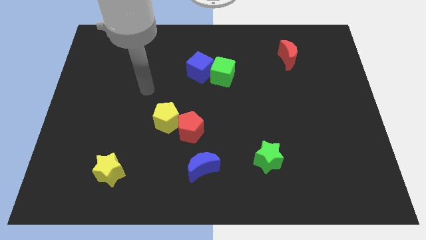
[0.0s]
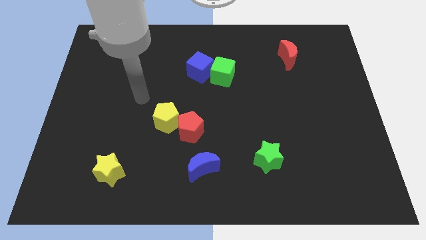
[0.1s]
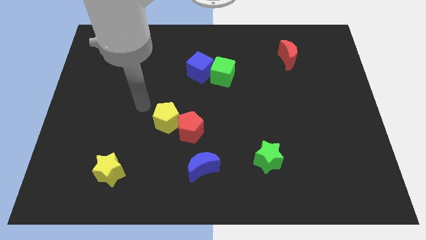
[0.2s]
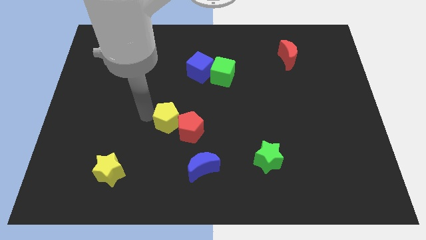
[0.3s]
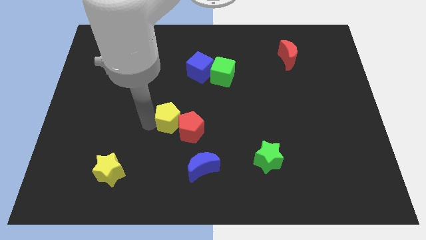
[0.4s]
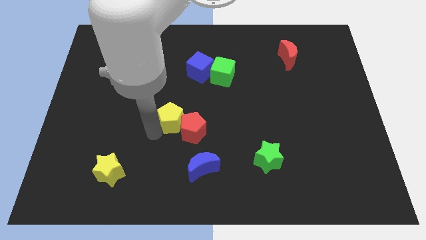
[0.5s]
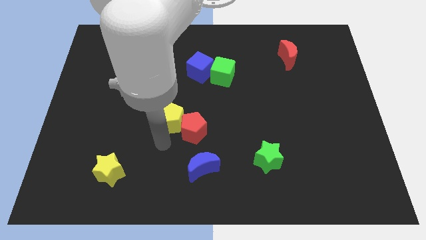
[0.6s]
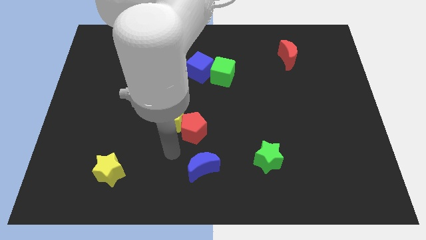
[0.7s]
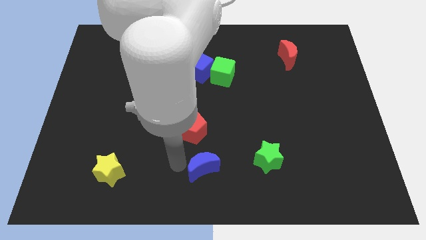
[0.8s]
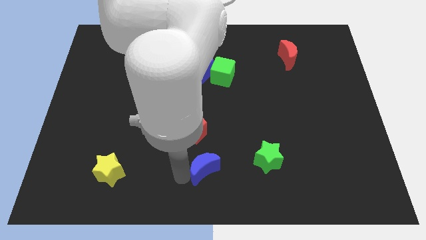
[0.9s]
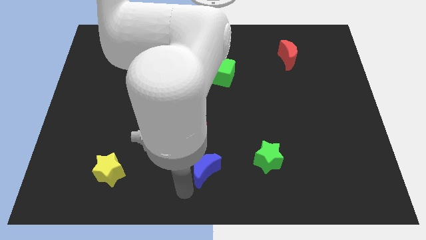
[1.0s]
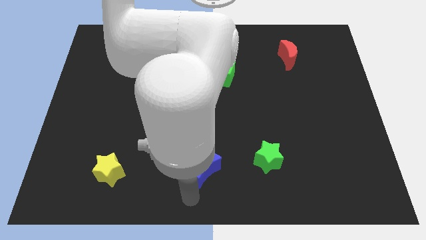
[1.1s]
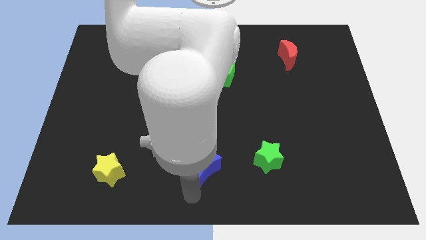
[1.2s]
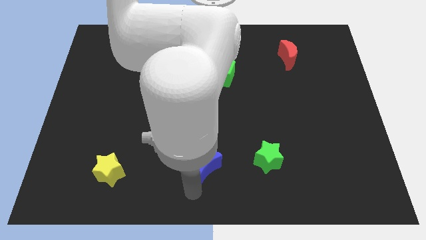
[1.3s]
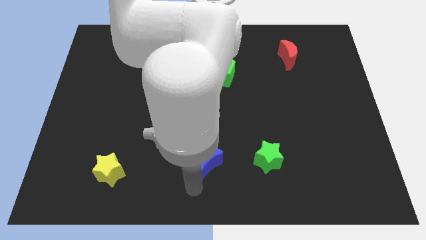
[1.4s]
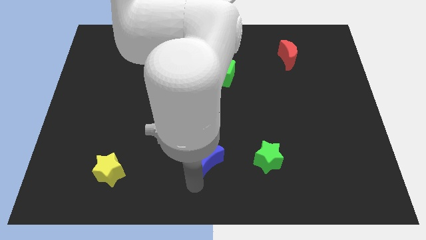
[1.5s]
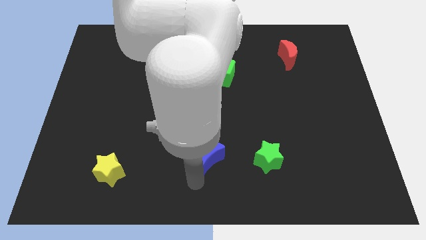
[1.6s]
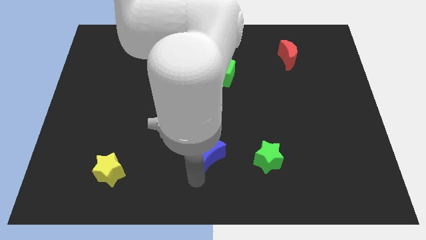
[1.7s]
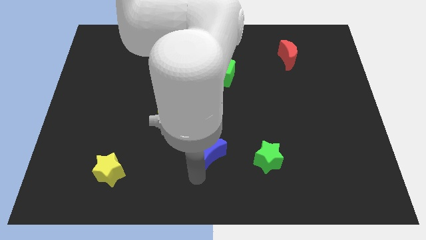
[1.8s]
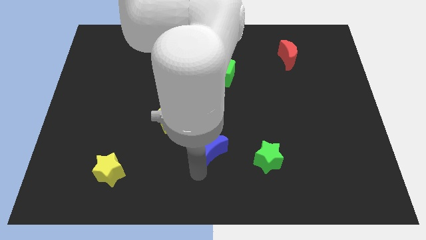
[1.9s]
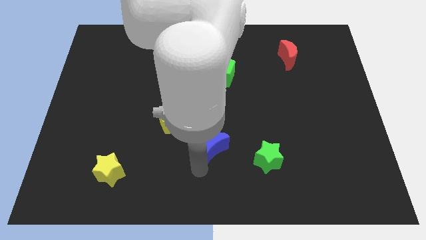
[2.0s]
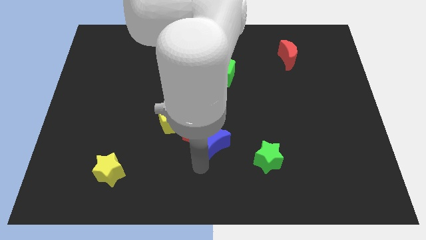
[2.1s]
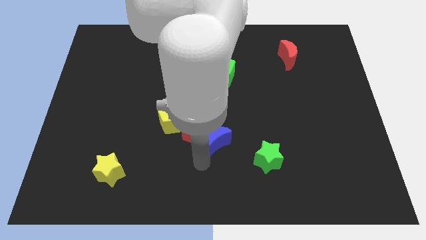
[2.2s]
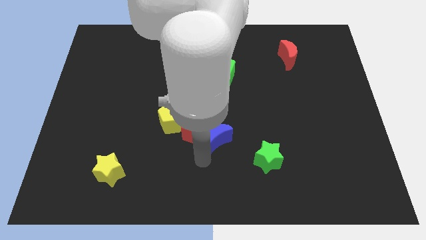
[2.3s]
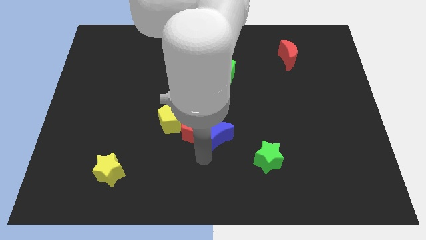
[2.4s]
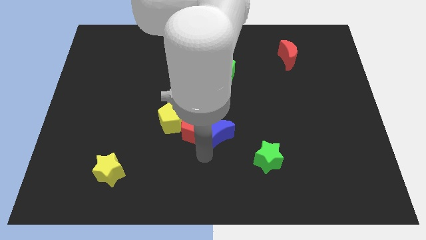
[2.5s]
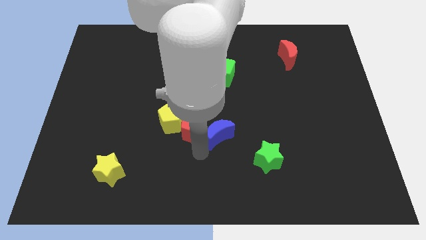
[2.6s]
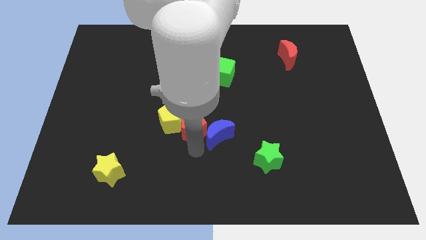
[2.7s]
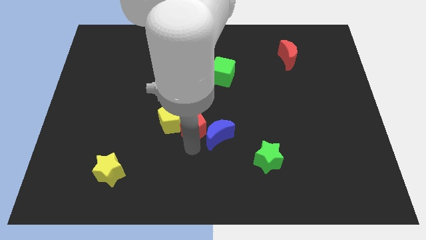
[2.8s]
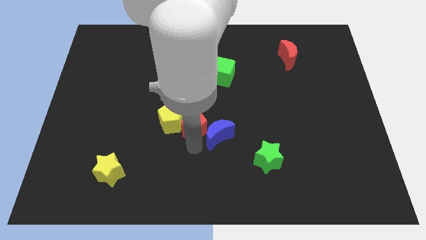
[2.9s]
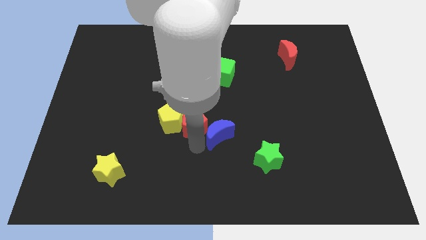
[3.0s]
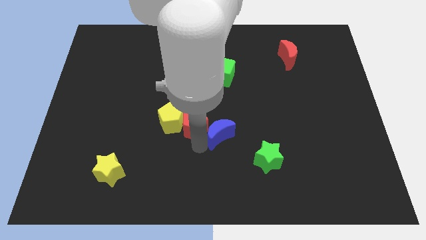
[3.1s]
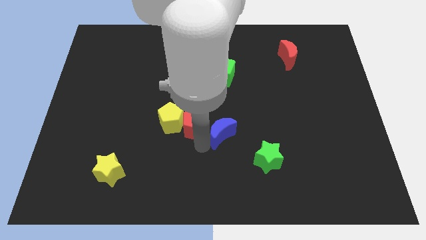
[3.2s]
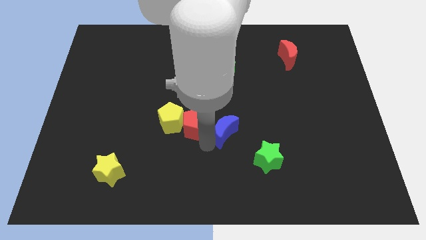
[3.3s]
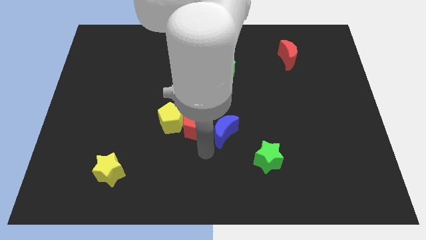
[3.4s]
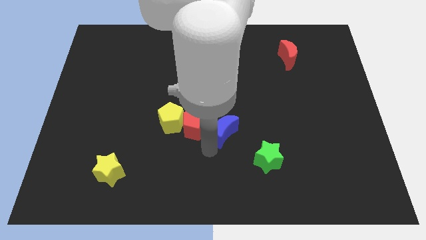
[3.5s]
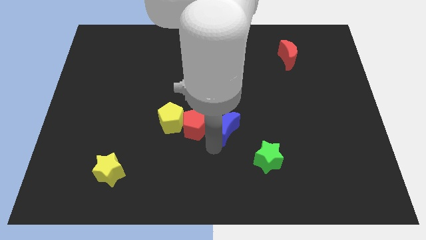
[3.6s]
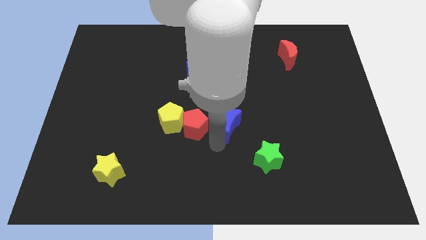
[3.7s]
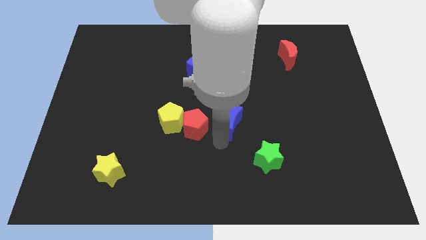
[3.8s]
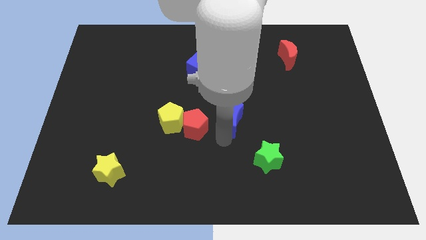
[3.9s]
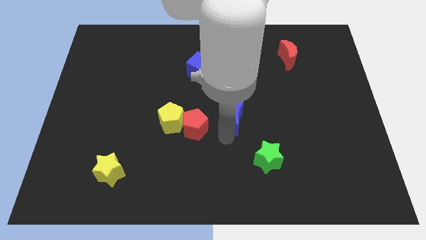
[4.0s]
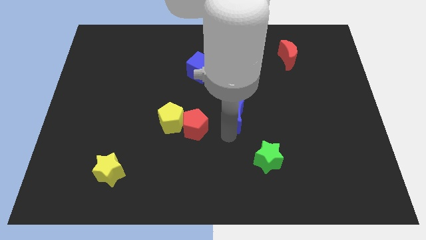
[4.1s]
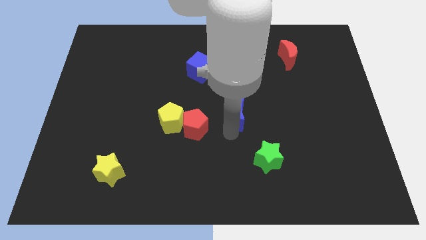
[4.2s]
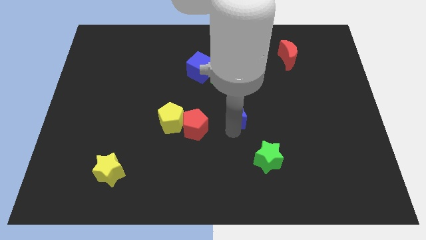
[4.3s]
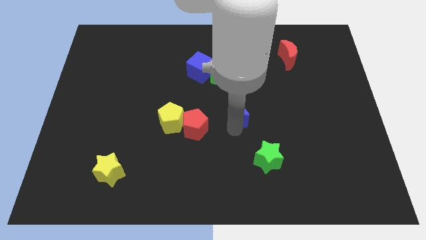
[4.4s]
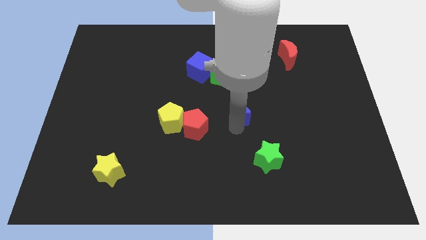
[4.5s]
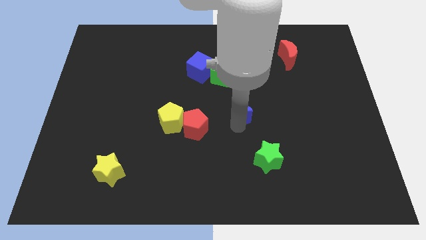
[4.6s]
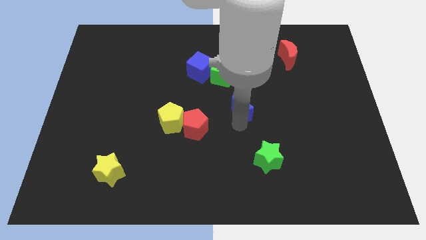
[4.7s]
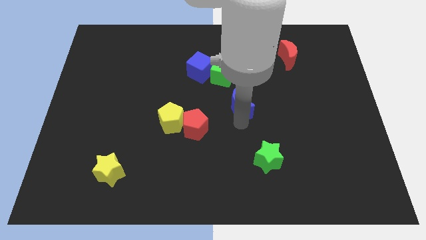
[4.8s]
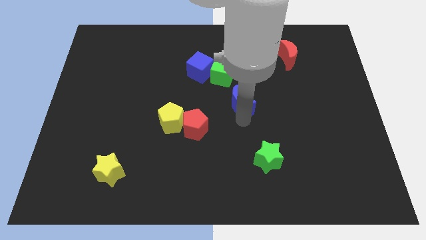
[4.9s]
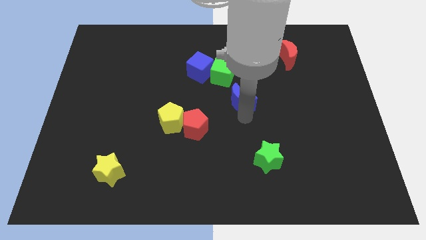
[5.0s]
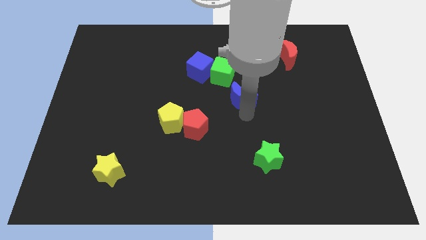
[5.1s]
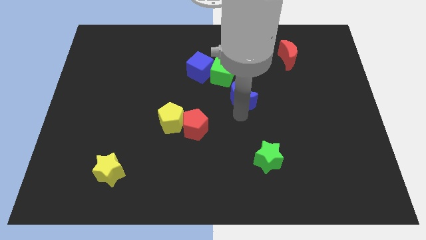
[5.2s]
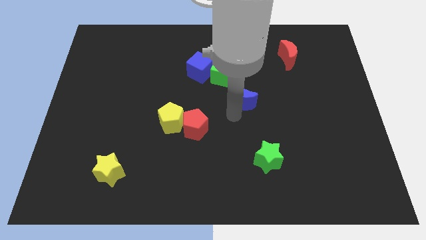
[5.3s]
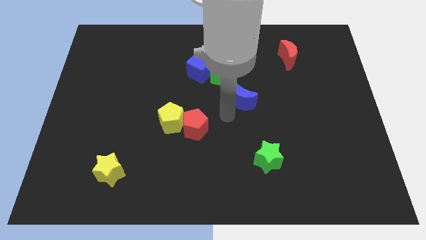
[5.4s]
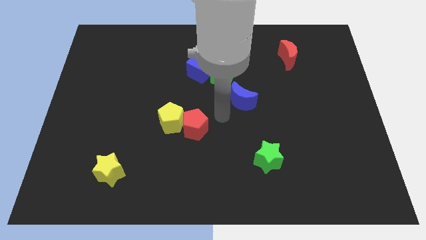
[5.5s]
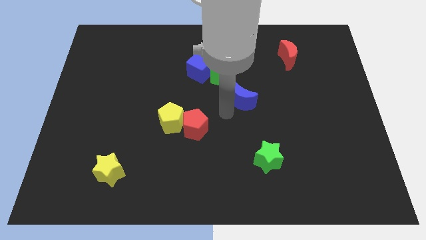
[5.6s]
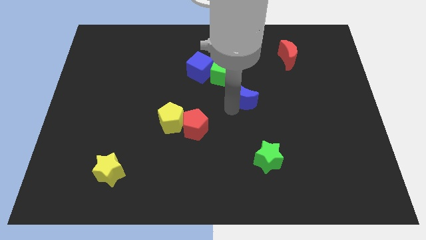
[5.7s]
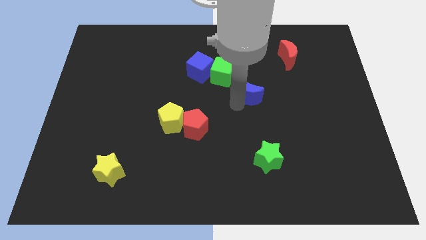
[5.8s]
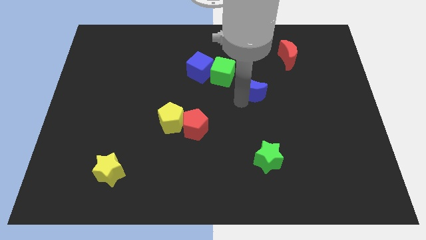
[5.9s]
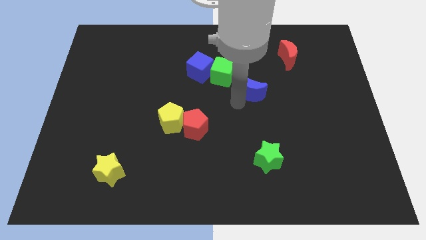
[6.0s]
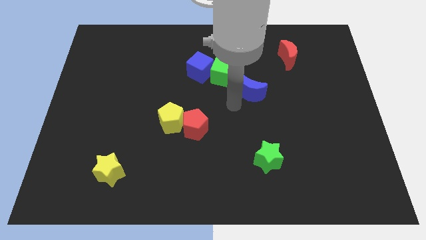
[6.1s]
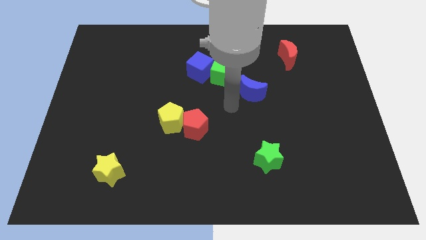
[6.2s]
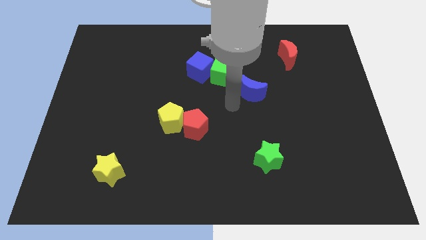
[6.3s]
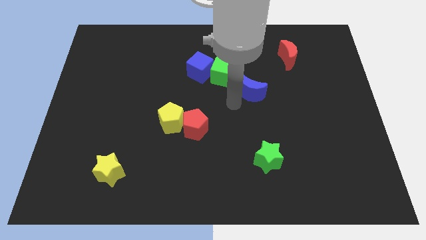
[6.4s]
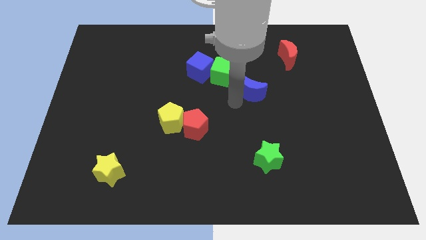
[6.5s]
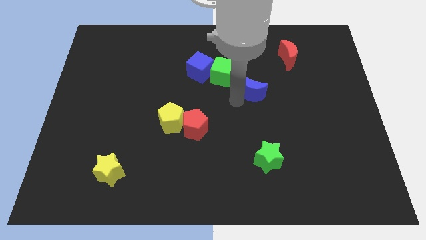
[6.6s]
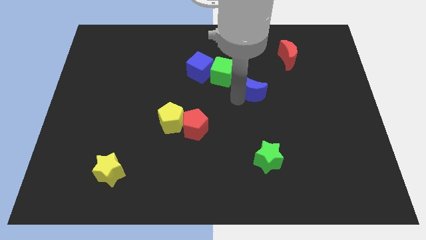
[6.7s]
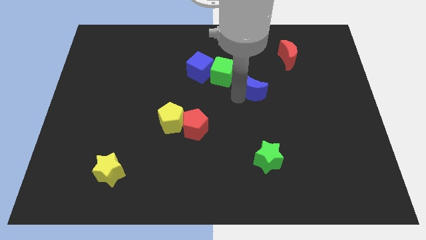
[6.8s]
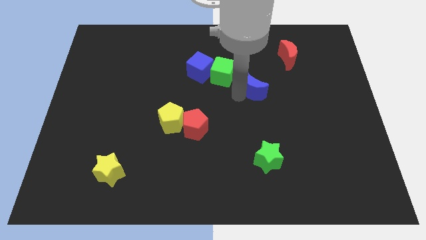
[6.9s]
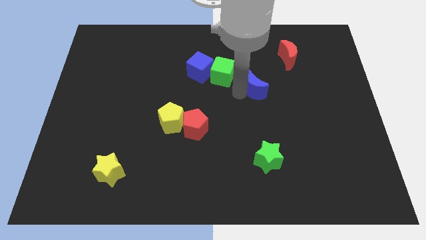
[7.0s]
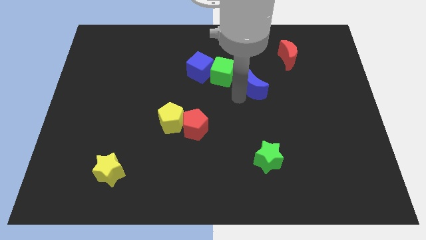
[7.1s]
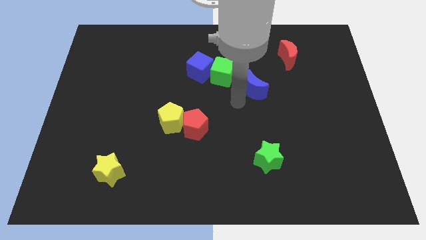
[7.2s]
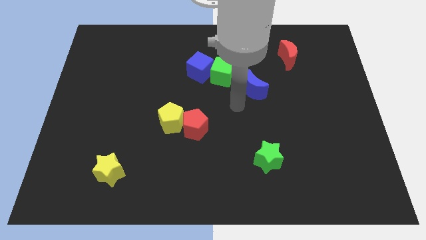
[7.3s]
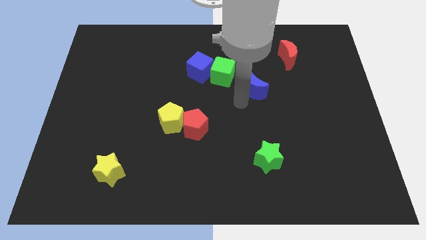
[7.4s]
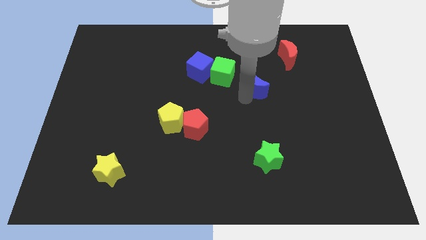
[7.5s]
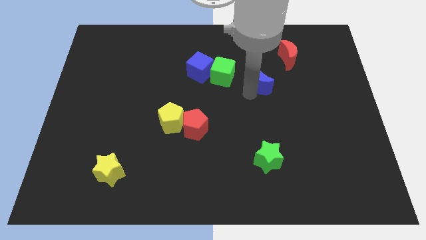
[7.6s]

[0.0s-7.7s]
put the blue moon to the bottom left side of the red moon
